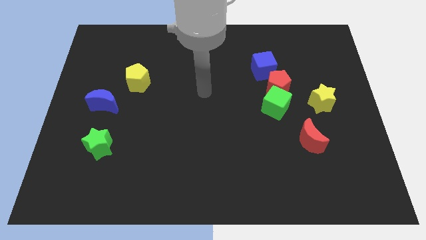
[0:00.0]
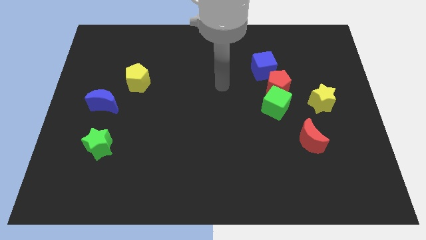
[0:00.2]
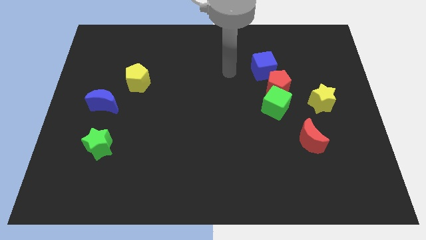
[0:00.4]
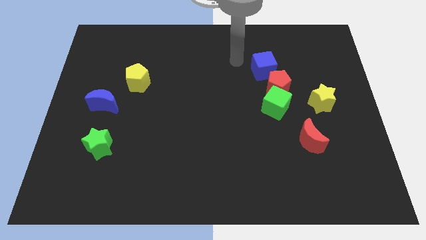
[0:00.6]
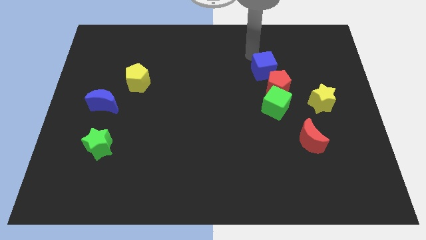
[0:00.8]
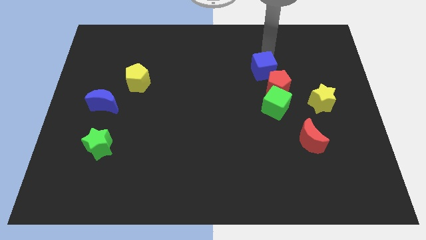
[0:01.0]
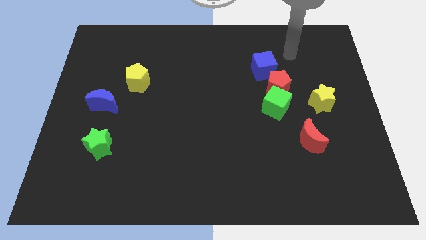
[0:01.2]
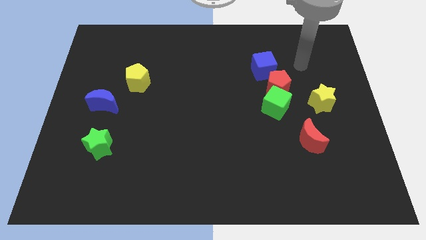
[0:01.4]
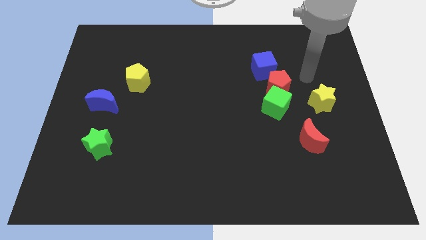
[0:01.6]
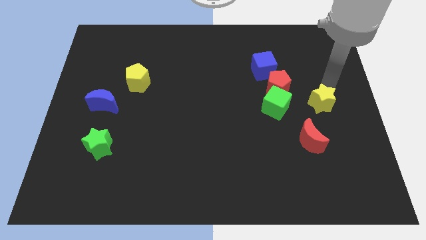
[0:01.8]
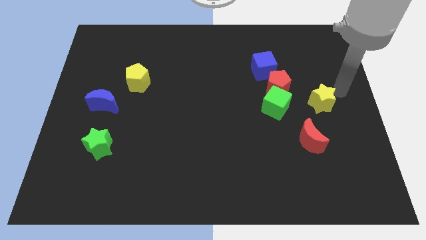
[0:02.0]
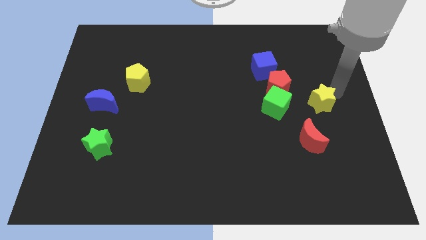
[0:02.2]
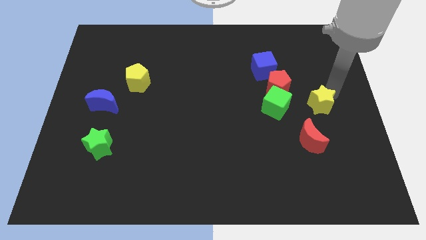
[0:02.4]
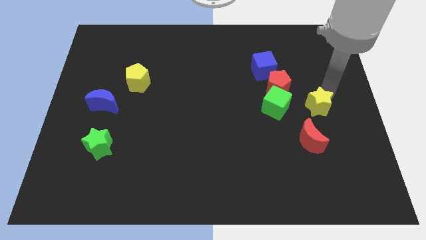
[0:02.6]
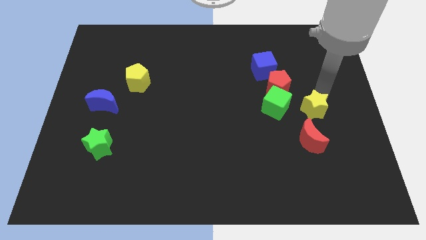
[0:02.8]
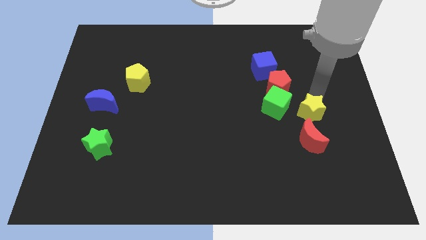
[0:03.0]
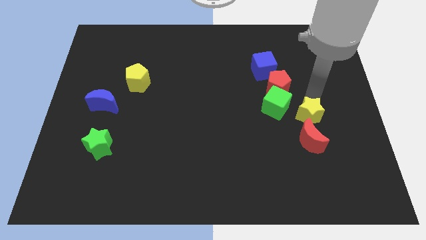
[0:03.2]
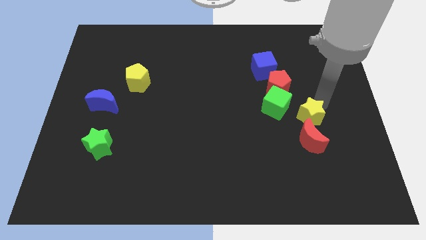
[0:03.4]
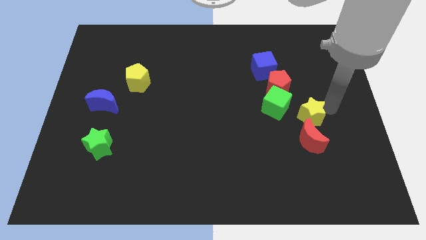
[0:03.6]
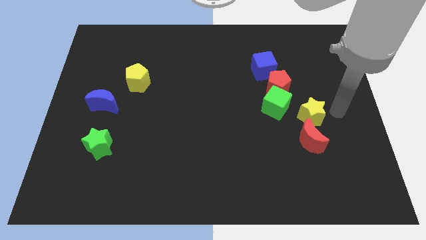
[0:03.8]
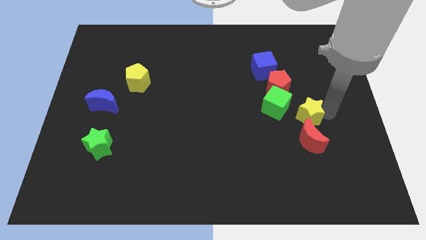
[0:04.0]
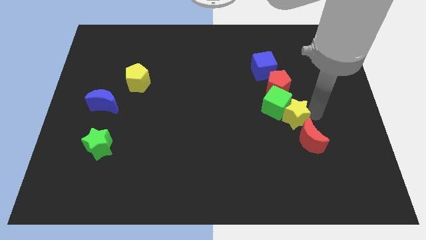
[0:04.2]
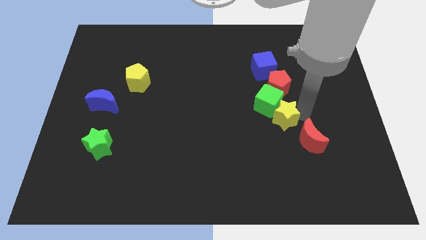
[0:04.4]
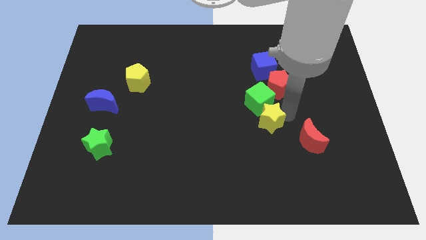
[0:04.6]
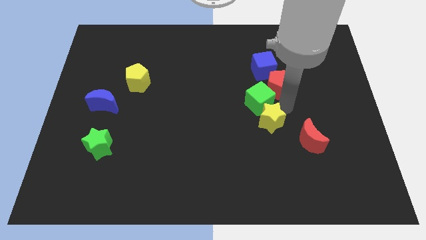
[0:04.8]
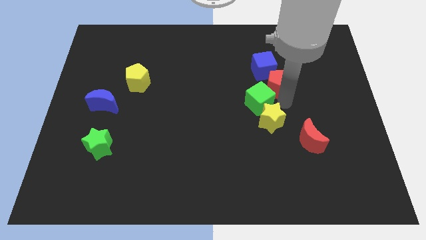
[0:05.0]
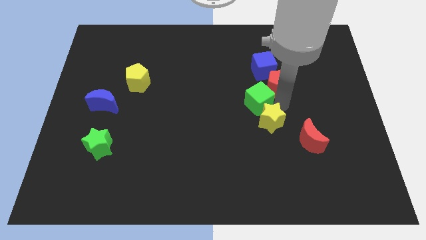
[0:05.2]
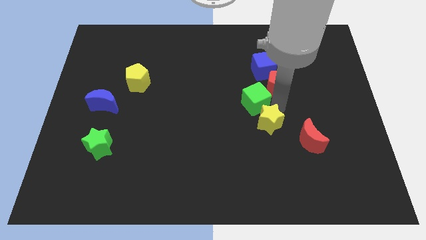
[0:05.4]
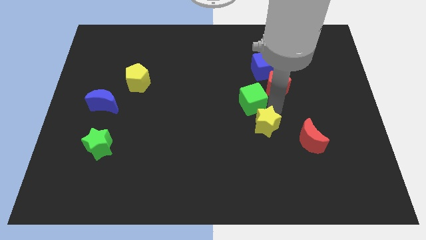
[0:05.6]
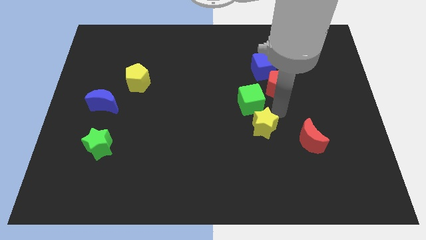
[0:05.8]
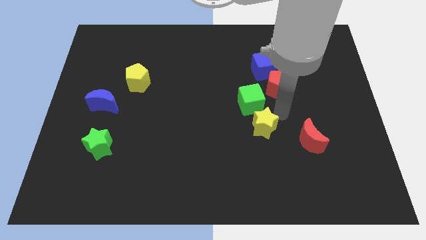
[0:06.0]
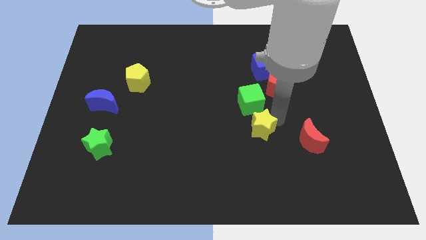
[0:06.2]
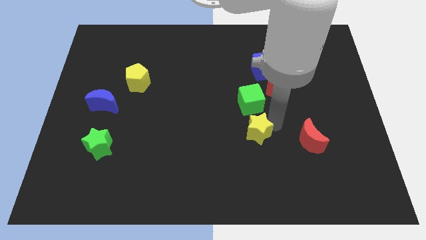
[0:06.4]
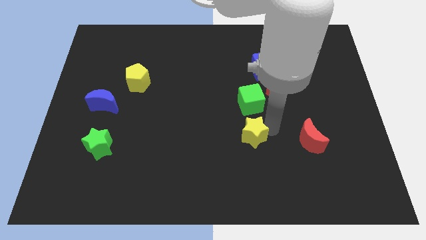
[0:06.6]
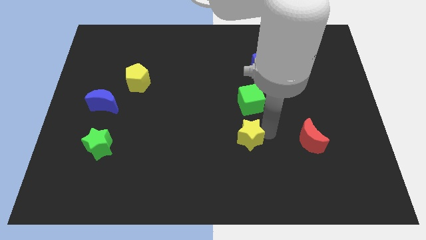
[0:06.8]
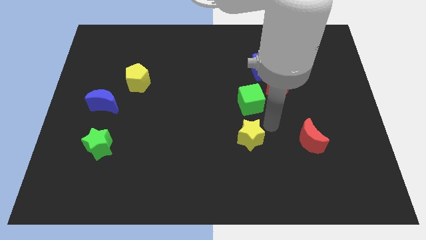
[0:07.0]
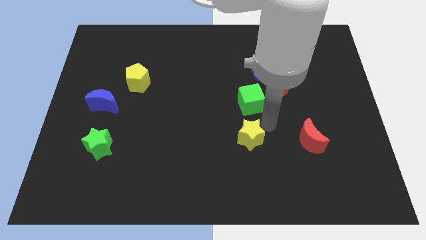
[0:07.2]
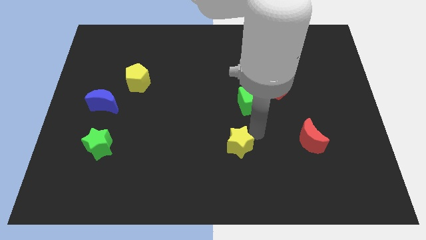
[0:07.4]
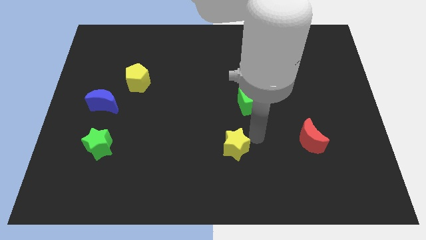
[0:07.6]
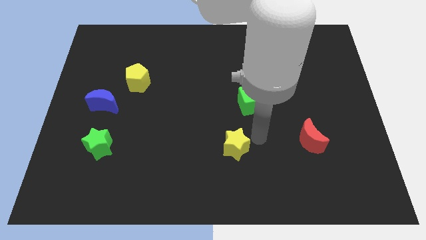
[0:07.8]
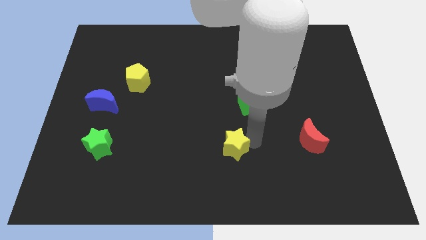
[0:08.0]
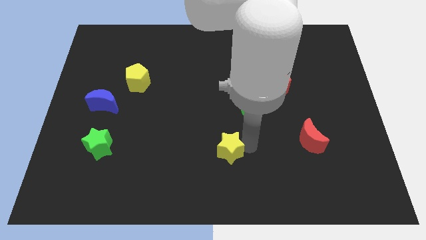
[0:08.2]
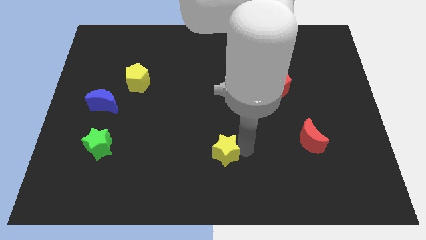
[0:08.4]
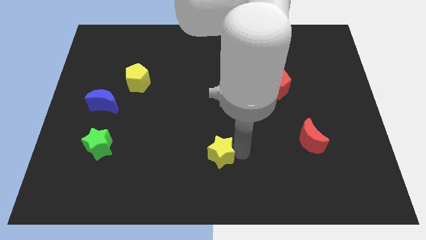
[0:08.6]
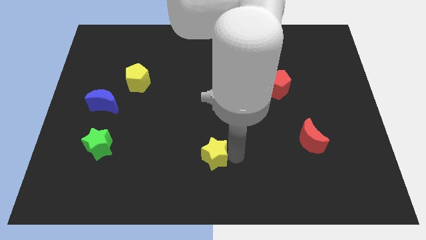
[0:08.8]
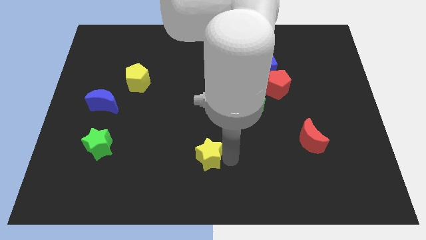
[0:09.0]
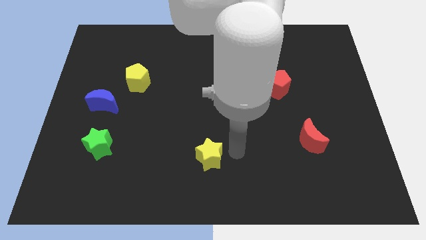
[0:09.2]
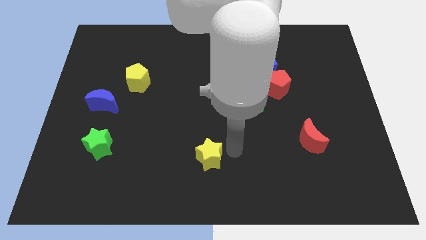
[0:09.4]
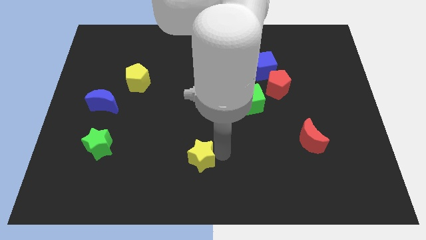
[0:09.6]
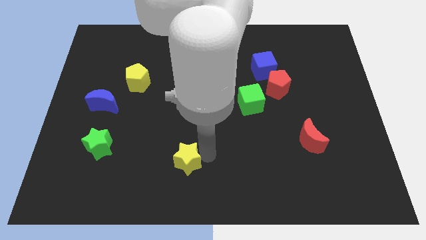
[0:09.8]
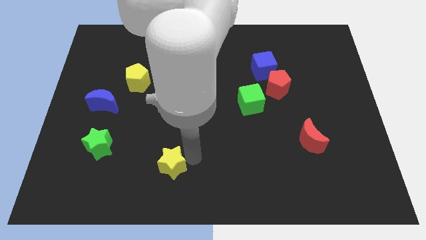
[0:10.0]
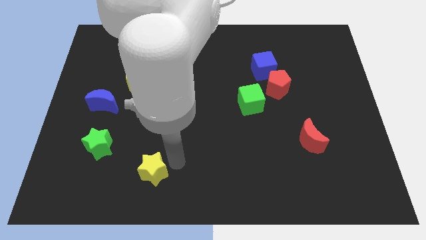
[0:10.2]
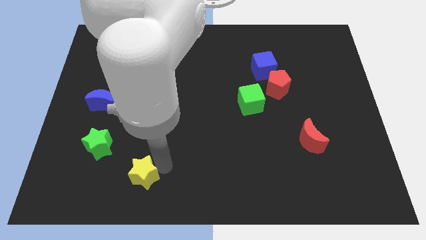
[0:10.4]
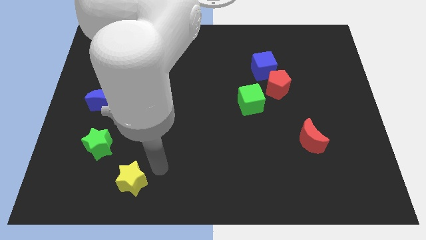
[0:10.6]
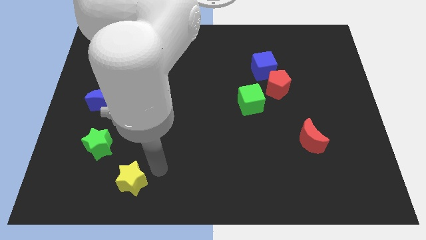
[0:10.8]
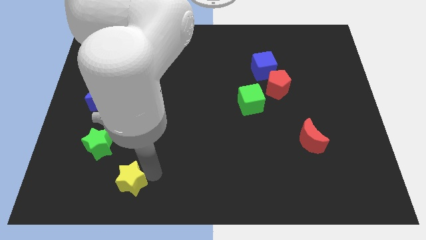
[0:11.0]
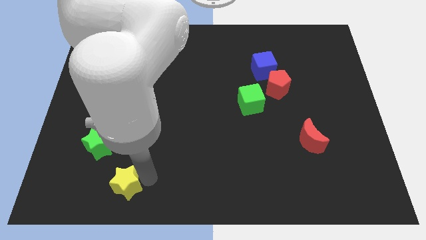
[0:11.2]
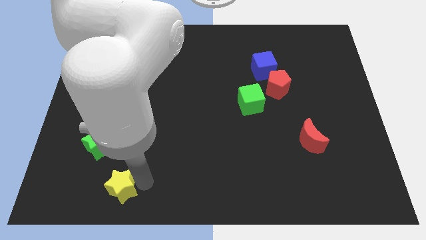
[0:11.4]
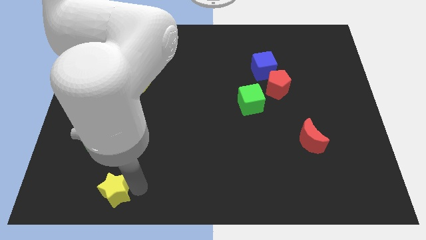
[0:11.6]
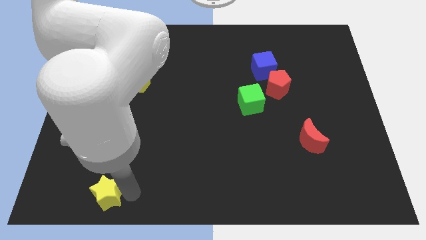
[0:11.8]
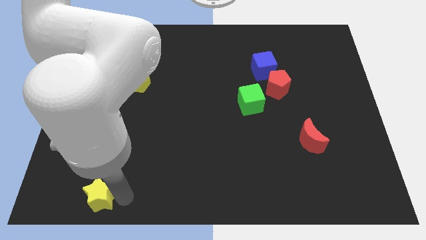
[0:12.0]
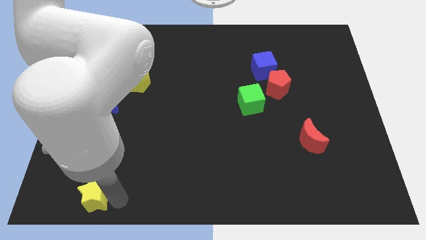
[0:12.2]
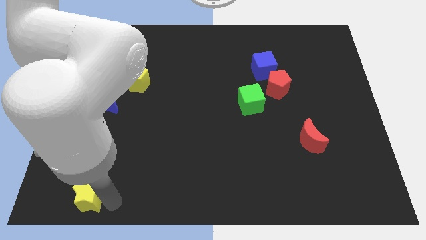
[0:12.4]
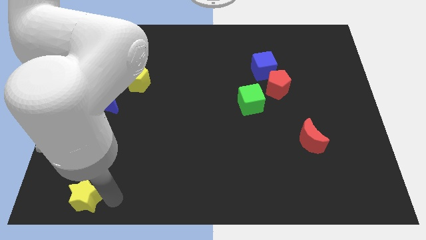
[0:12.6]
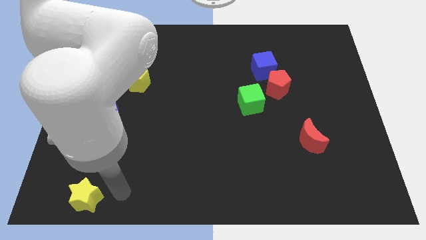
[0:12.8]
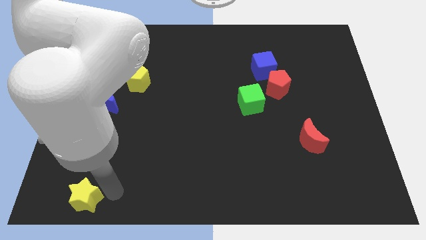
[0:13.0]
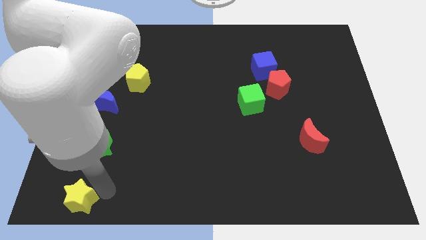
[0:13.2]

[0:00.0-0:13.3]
slide the yellow star to the bottom left of the board
